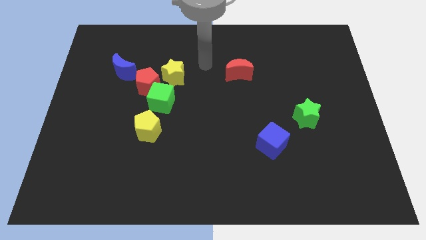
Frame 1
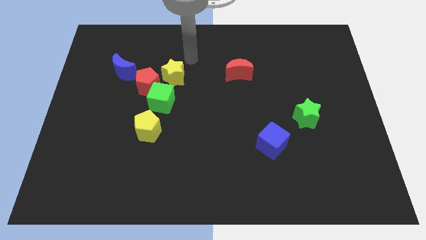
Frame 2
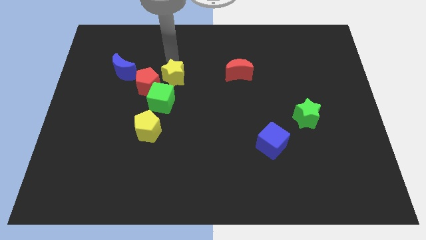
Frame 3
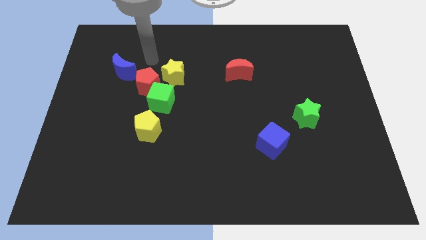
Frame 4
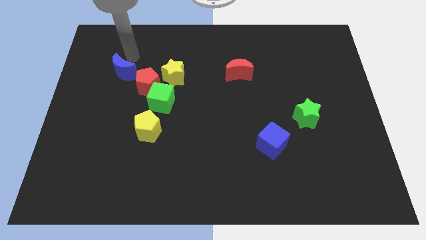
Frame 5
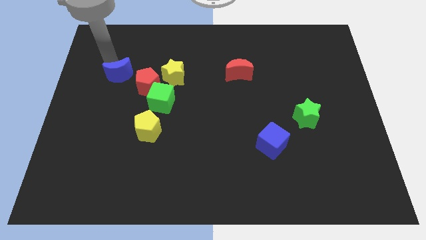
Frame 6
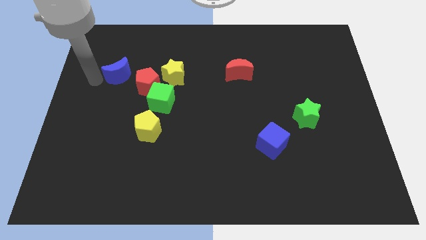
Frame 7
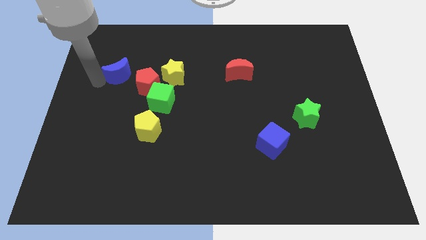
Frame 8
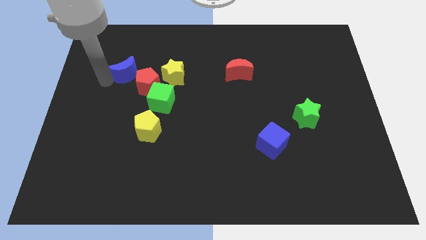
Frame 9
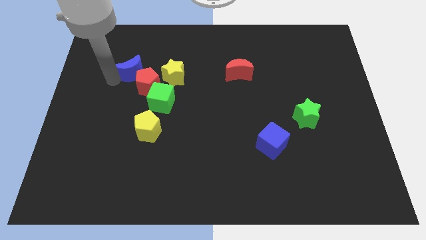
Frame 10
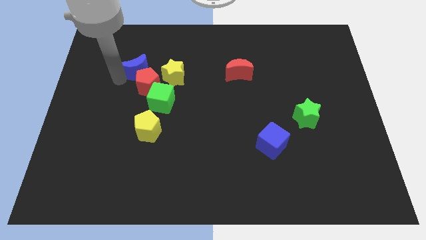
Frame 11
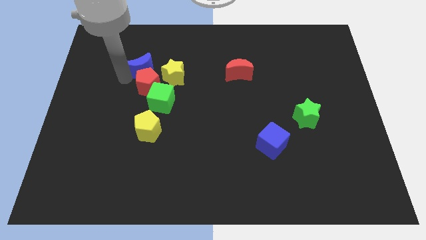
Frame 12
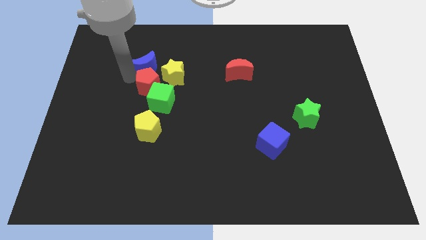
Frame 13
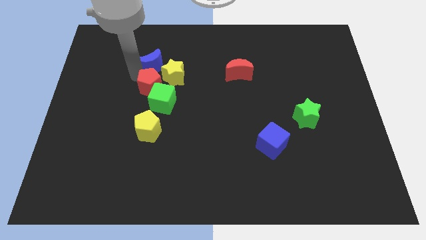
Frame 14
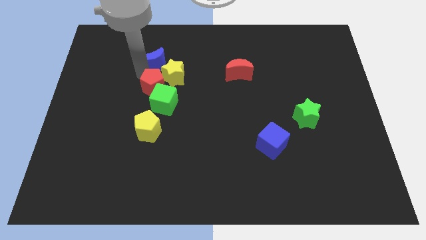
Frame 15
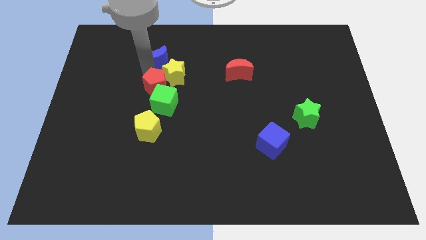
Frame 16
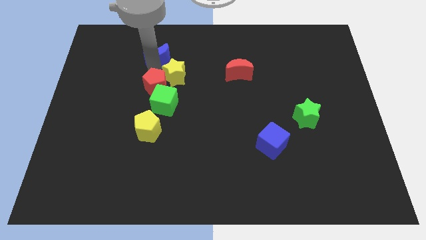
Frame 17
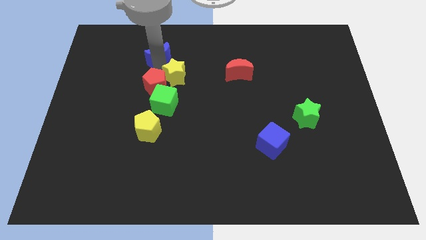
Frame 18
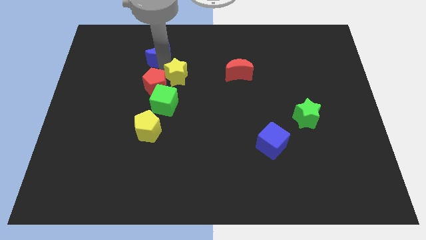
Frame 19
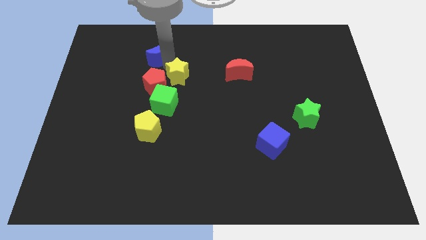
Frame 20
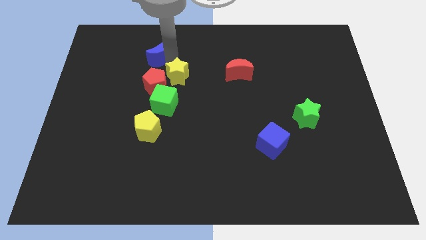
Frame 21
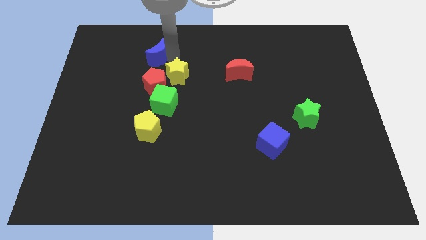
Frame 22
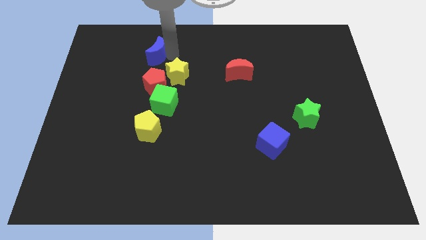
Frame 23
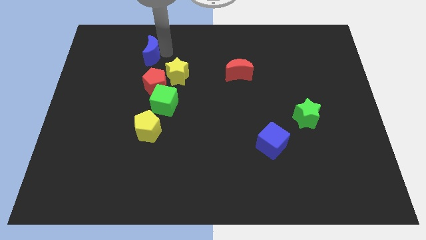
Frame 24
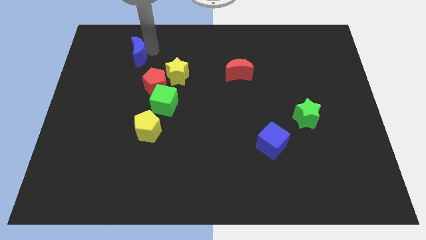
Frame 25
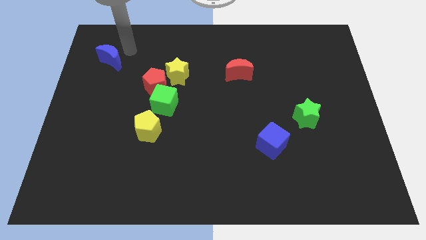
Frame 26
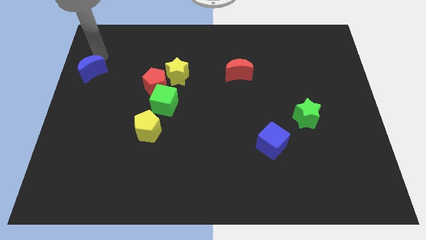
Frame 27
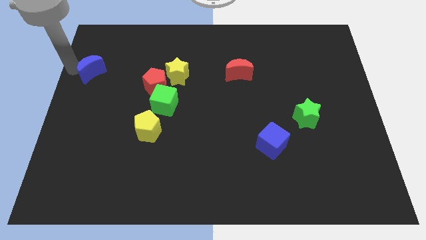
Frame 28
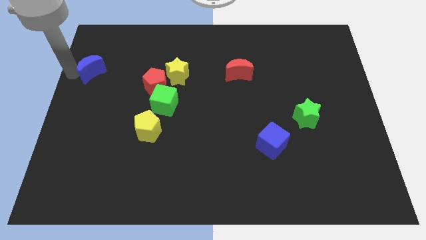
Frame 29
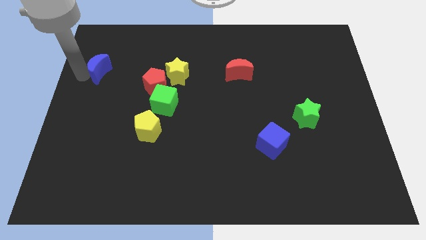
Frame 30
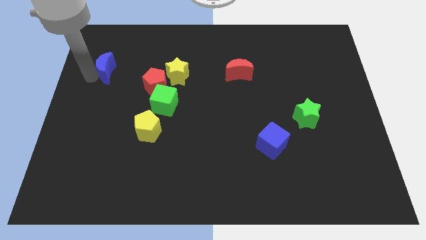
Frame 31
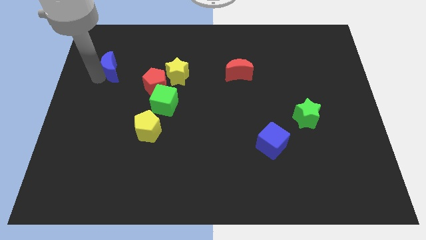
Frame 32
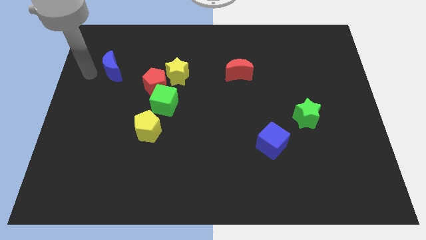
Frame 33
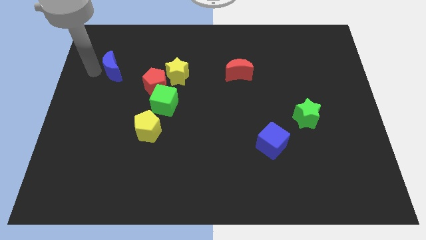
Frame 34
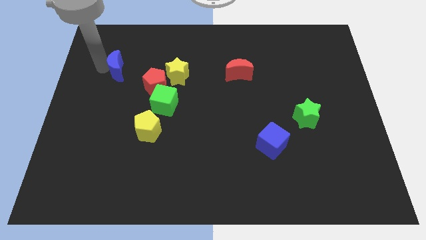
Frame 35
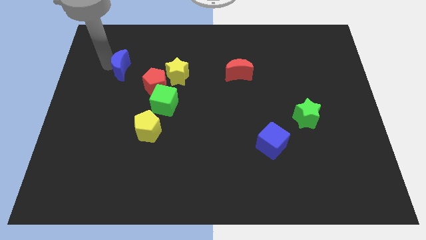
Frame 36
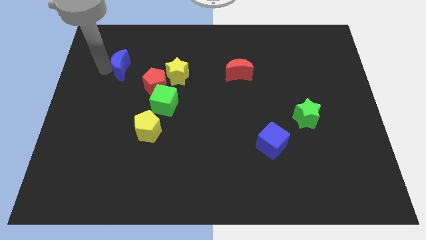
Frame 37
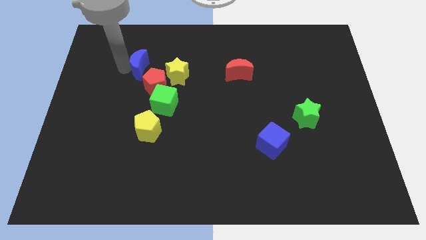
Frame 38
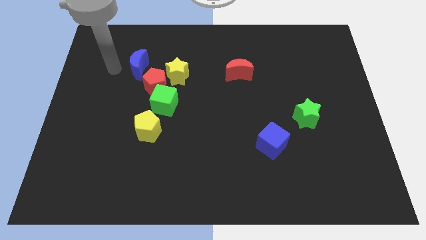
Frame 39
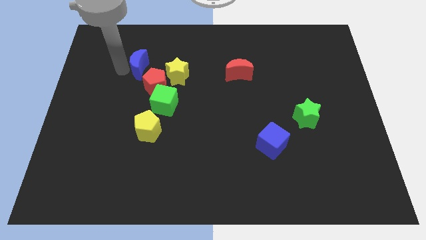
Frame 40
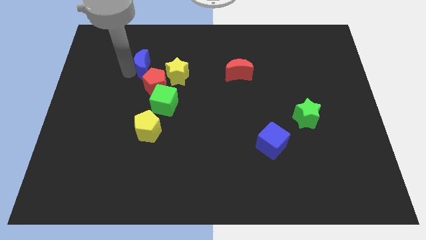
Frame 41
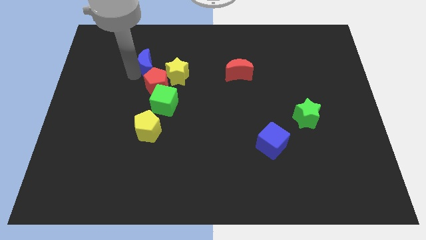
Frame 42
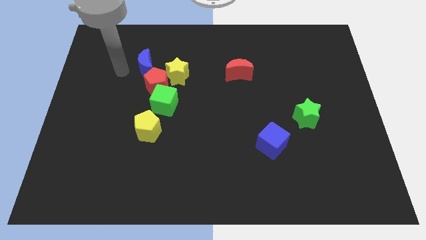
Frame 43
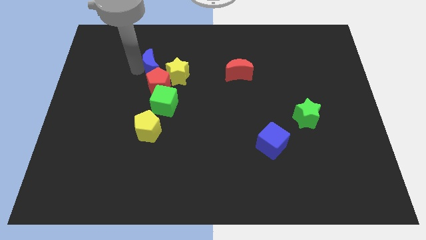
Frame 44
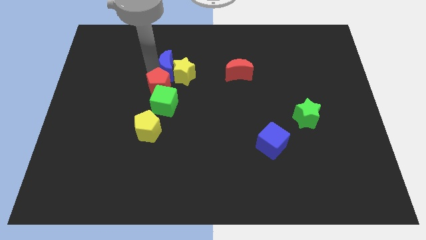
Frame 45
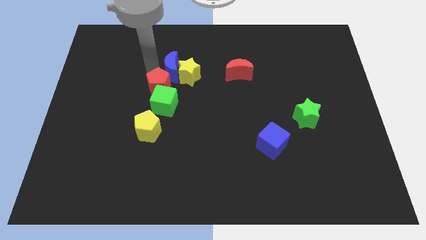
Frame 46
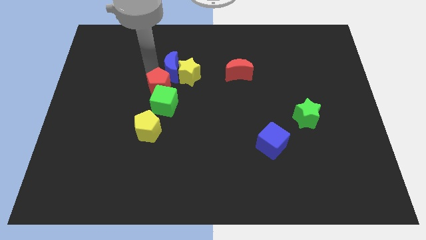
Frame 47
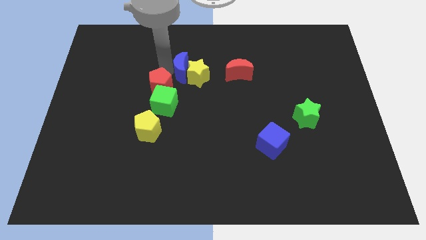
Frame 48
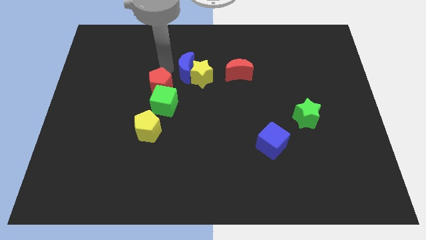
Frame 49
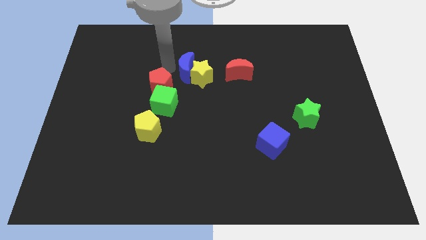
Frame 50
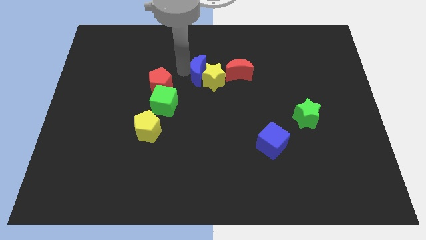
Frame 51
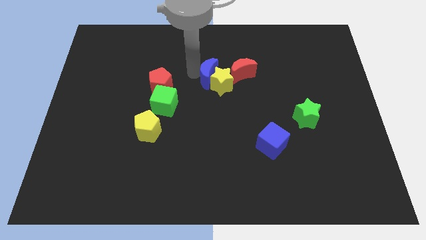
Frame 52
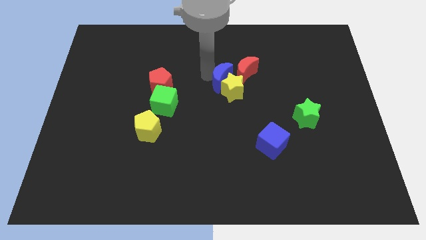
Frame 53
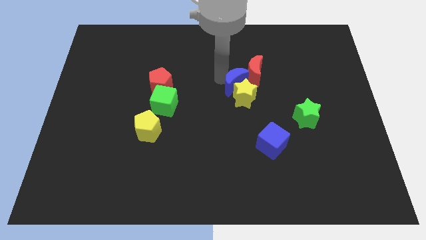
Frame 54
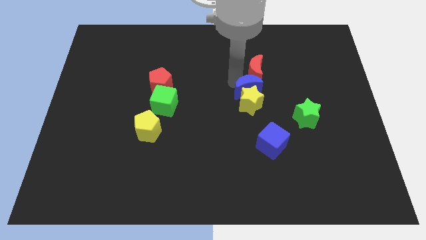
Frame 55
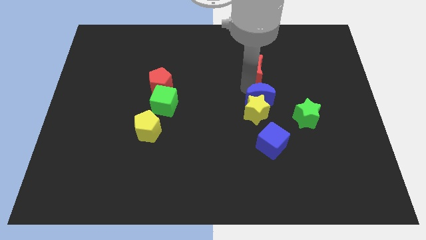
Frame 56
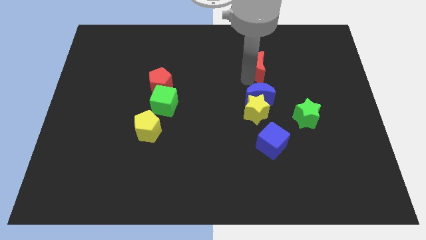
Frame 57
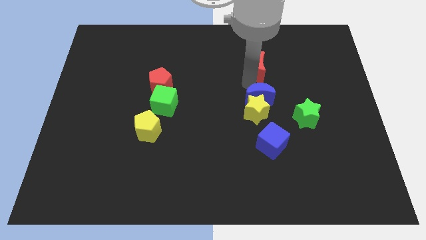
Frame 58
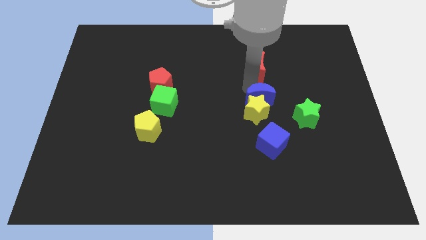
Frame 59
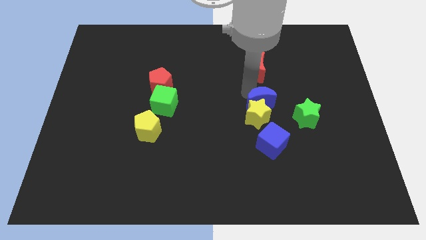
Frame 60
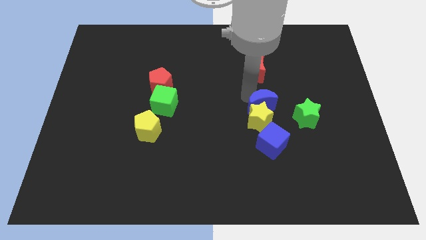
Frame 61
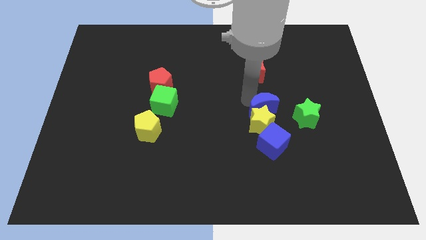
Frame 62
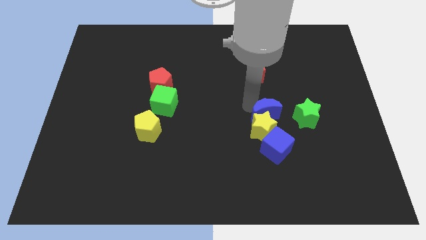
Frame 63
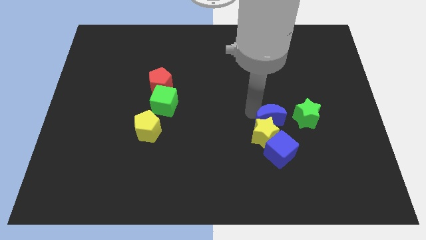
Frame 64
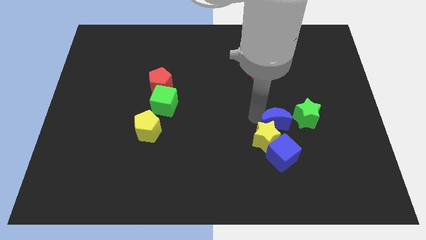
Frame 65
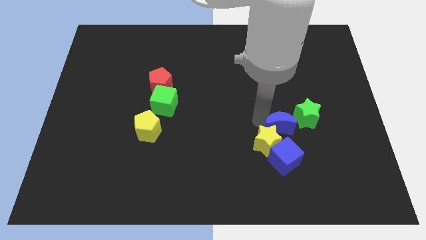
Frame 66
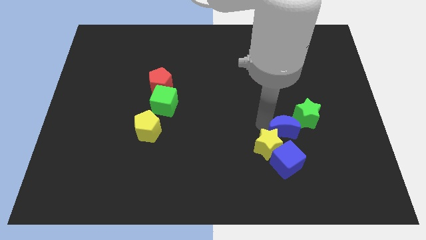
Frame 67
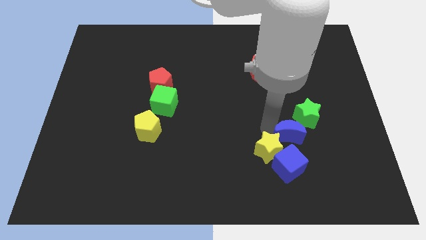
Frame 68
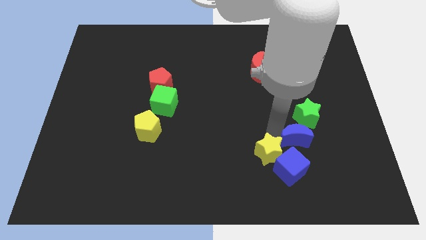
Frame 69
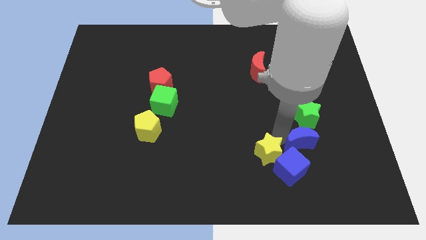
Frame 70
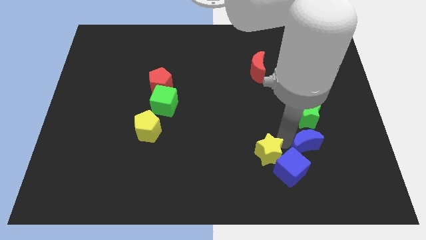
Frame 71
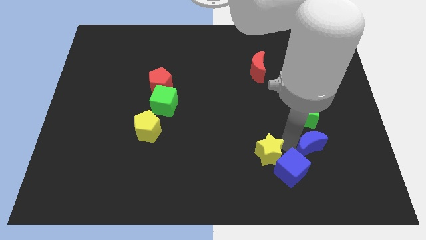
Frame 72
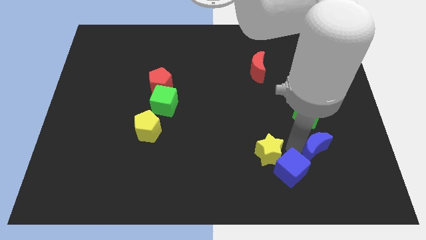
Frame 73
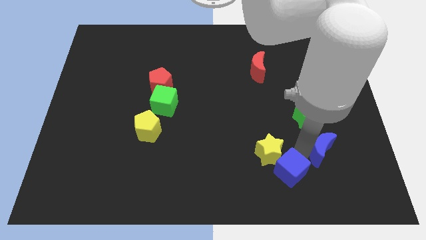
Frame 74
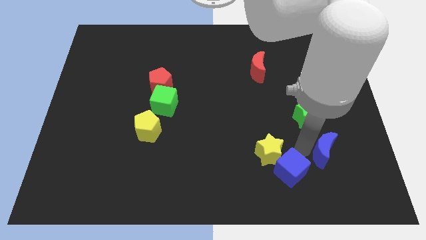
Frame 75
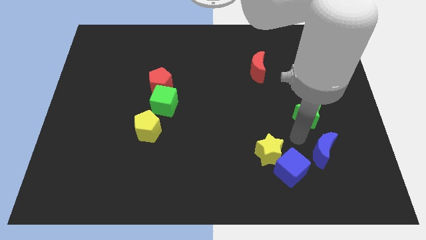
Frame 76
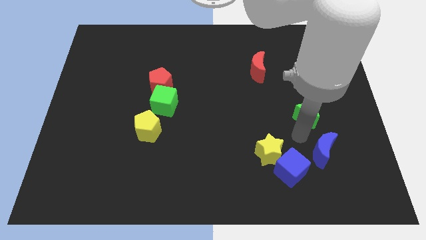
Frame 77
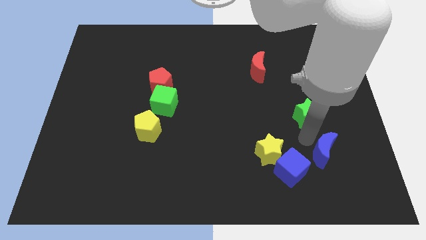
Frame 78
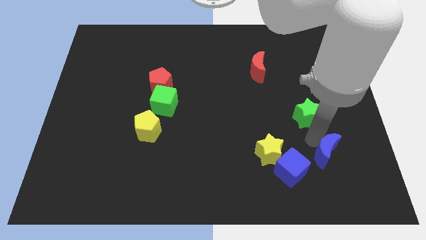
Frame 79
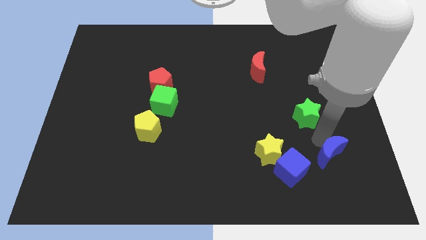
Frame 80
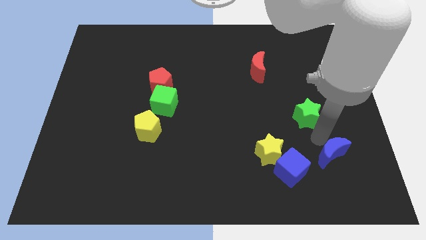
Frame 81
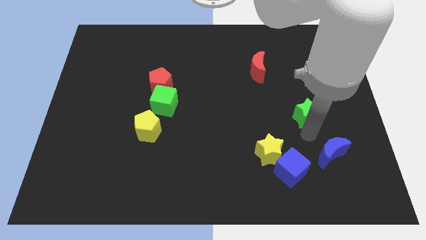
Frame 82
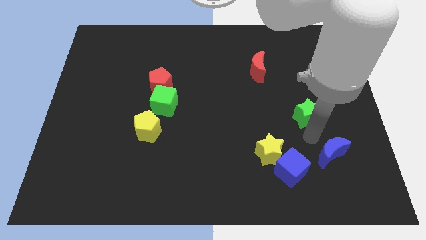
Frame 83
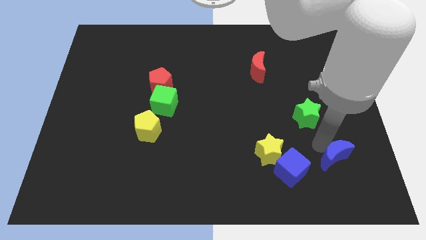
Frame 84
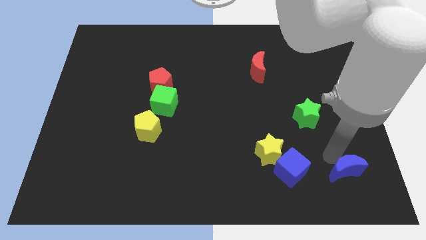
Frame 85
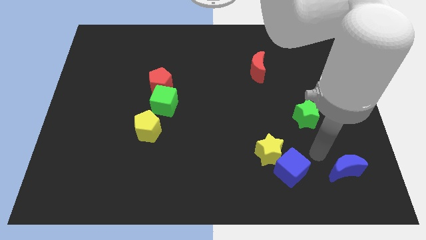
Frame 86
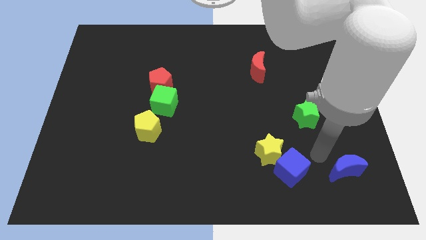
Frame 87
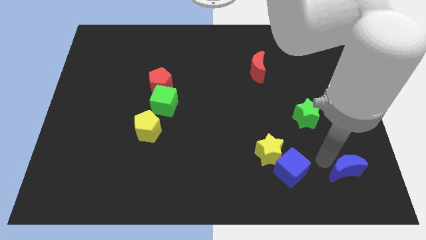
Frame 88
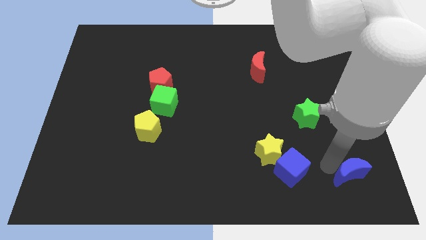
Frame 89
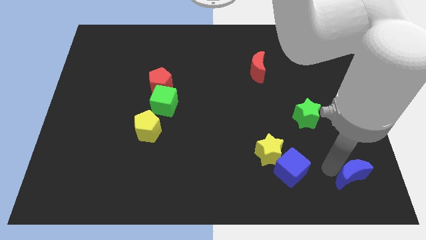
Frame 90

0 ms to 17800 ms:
slide the blue moon to the bottom right
